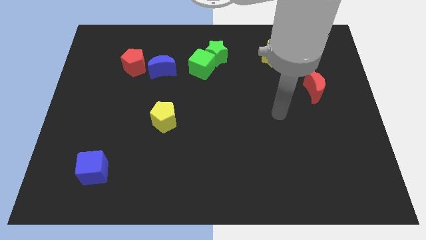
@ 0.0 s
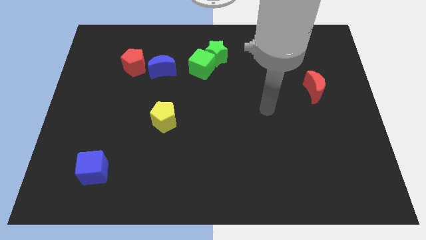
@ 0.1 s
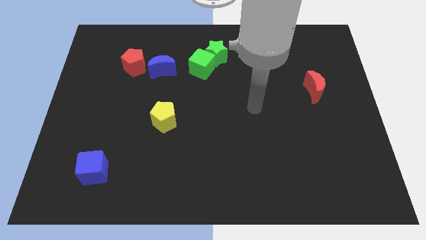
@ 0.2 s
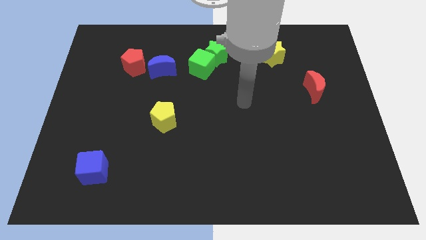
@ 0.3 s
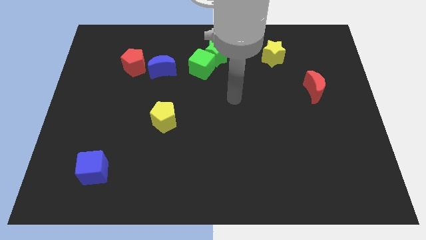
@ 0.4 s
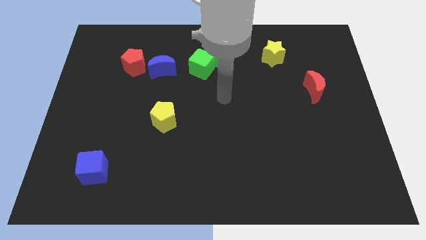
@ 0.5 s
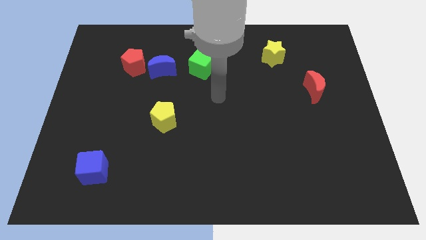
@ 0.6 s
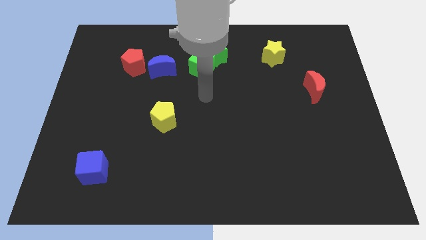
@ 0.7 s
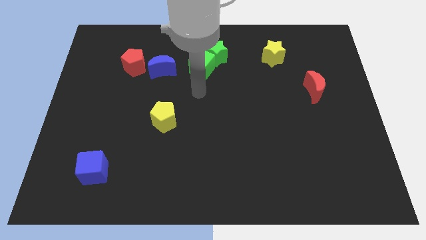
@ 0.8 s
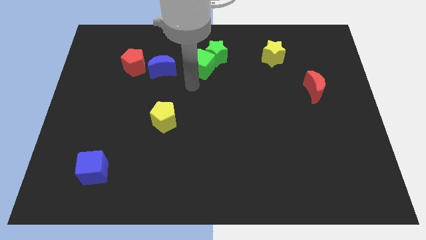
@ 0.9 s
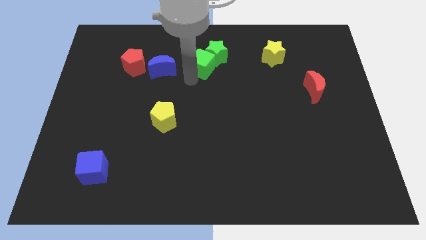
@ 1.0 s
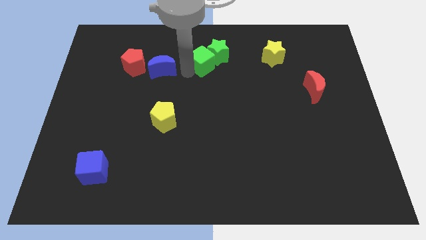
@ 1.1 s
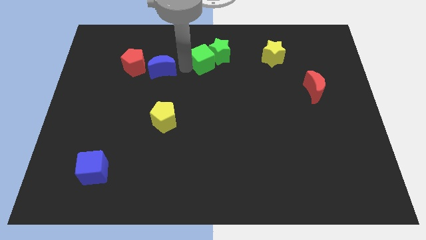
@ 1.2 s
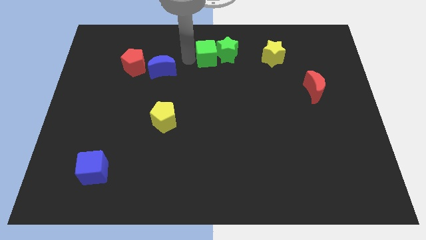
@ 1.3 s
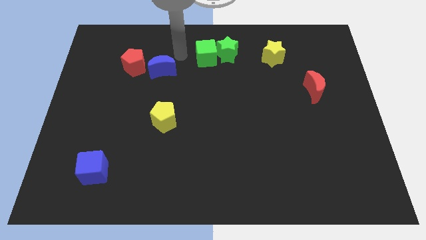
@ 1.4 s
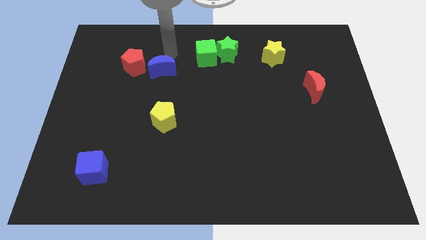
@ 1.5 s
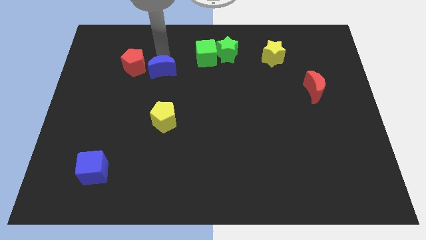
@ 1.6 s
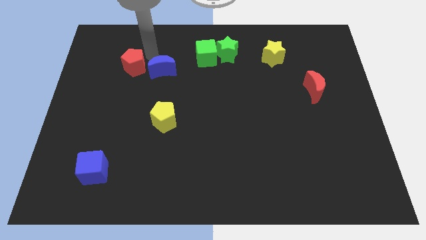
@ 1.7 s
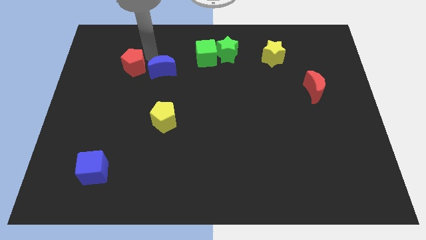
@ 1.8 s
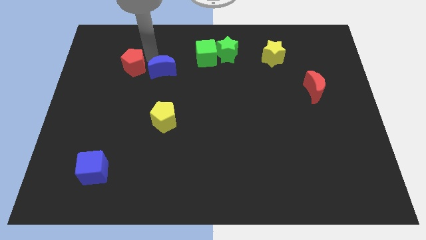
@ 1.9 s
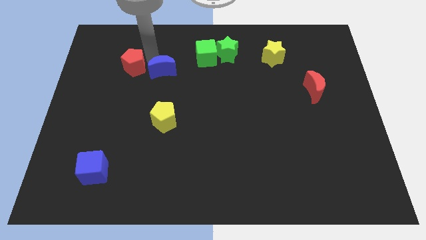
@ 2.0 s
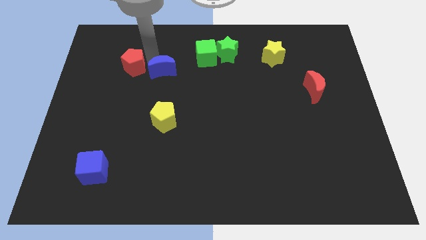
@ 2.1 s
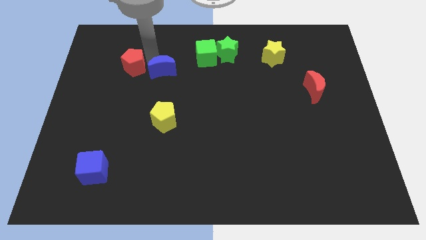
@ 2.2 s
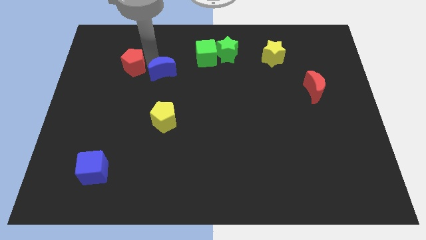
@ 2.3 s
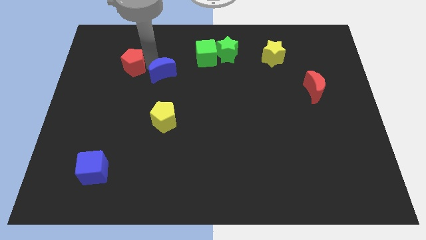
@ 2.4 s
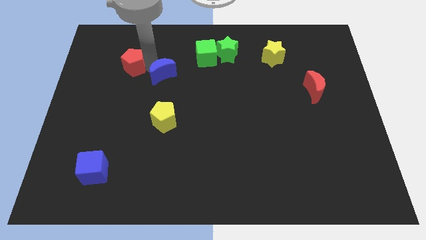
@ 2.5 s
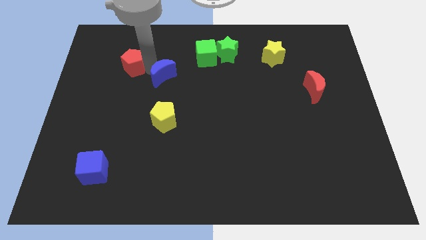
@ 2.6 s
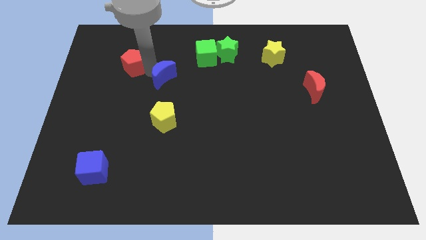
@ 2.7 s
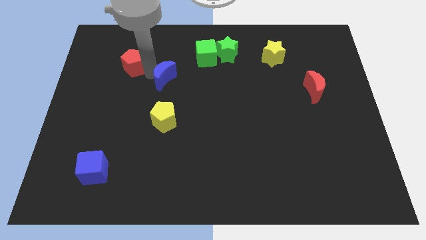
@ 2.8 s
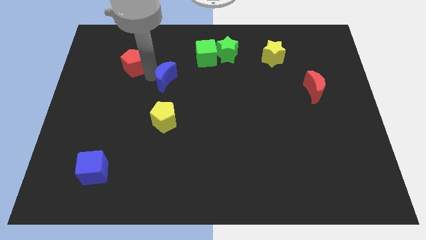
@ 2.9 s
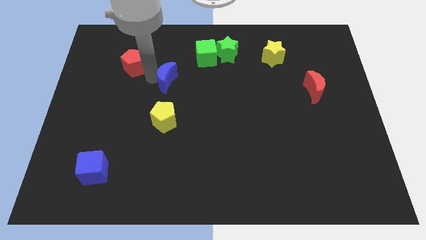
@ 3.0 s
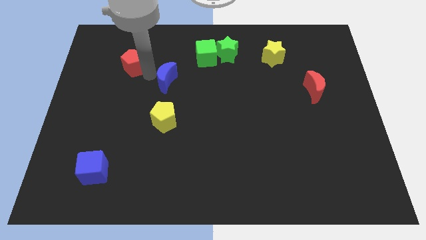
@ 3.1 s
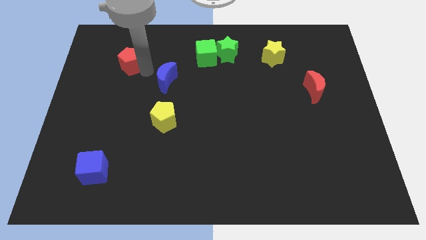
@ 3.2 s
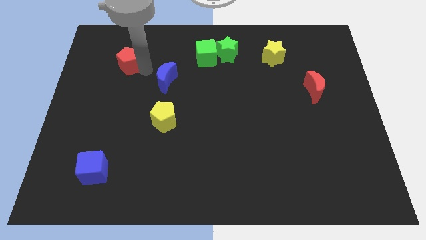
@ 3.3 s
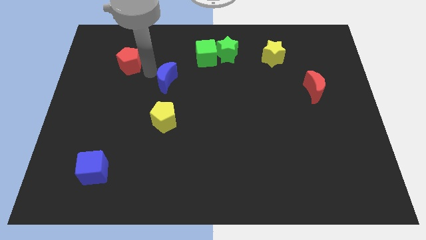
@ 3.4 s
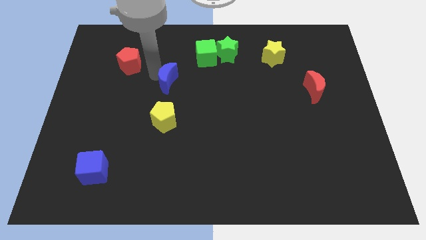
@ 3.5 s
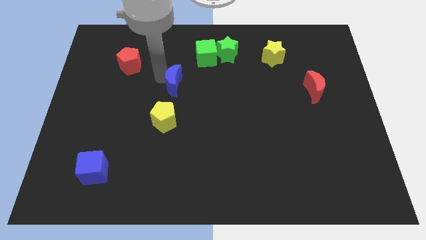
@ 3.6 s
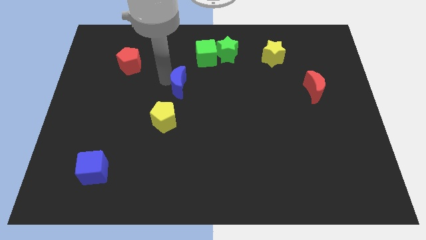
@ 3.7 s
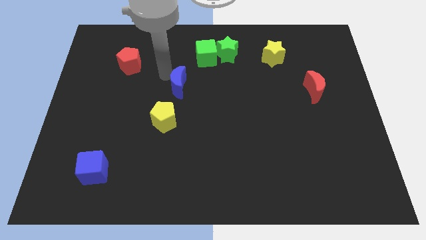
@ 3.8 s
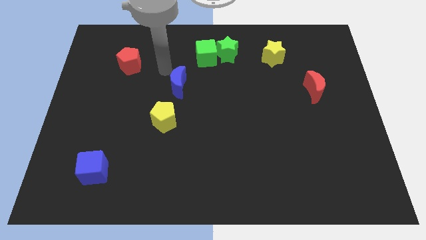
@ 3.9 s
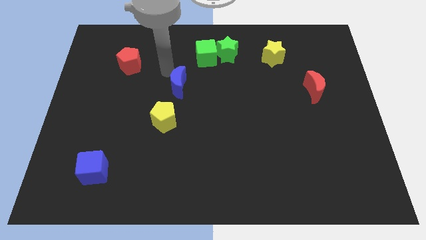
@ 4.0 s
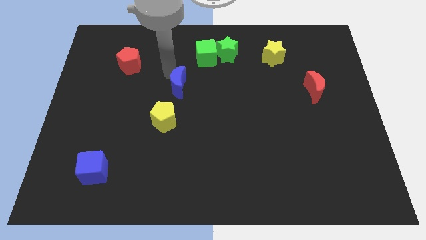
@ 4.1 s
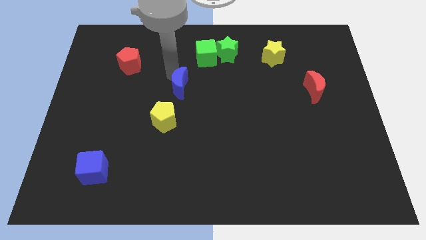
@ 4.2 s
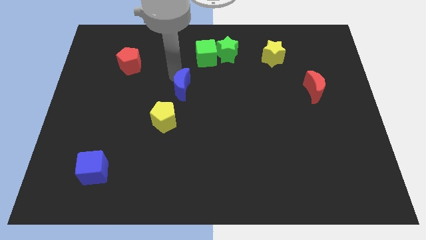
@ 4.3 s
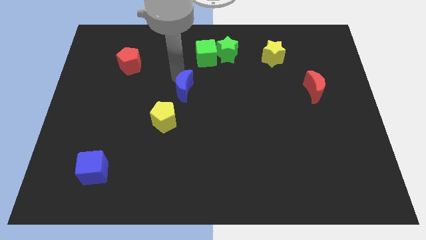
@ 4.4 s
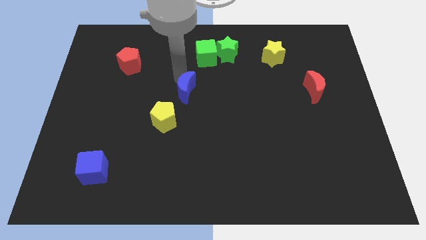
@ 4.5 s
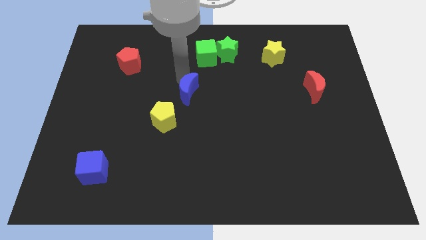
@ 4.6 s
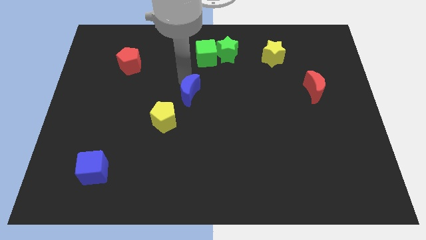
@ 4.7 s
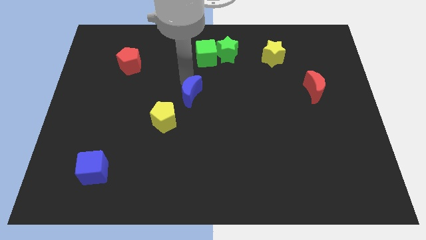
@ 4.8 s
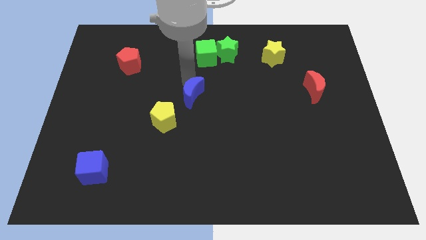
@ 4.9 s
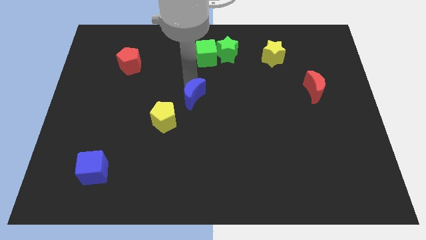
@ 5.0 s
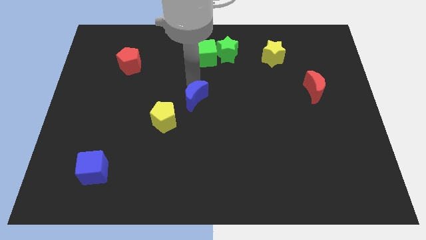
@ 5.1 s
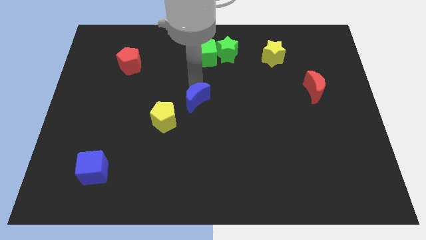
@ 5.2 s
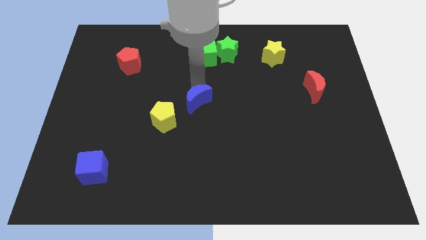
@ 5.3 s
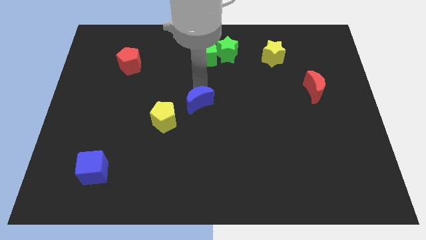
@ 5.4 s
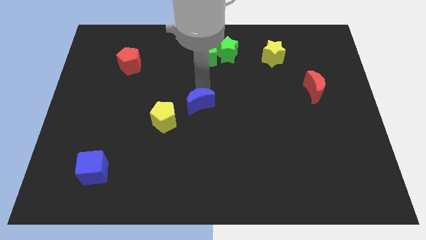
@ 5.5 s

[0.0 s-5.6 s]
slide the blue moon just right of the yellow pentagon

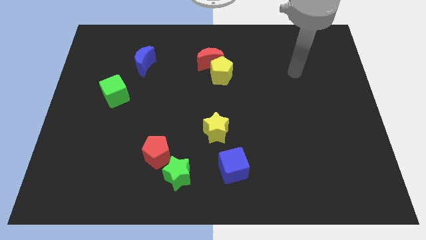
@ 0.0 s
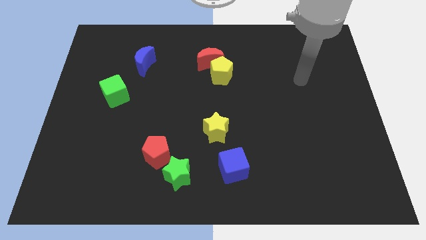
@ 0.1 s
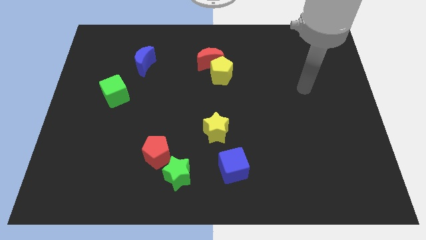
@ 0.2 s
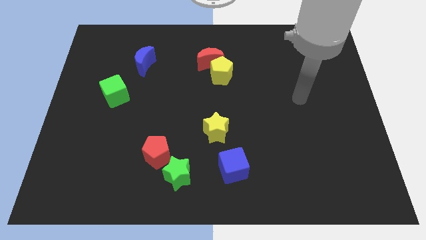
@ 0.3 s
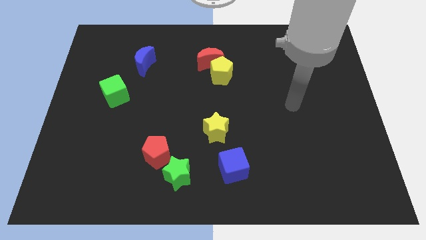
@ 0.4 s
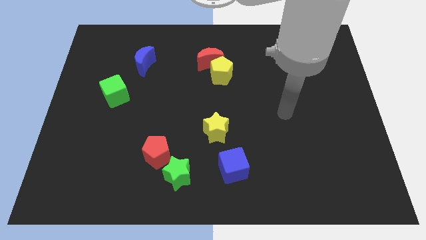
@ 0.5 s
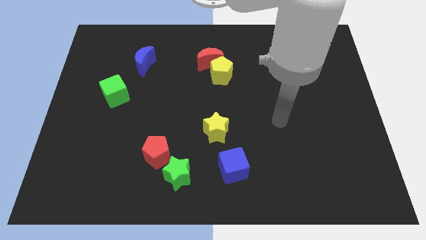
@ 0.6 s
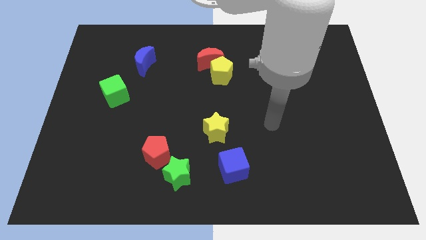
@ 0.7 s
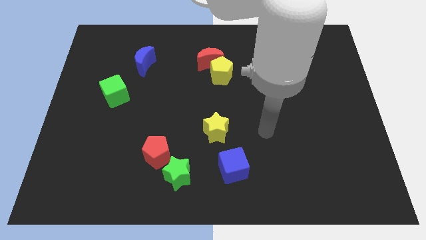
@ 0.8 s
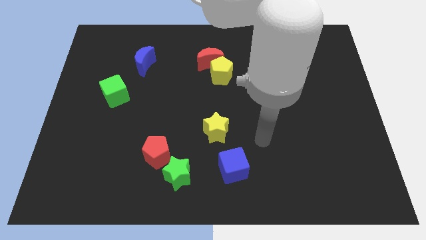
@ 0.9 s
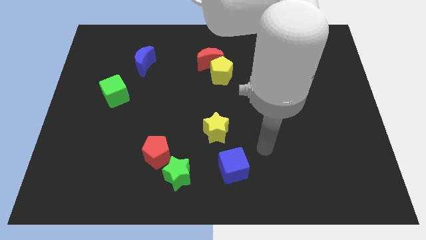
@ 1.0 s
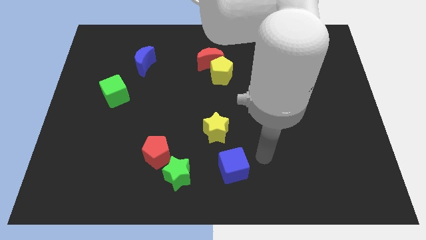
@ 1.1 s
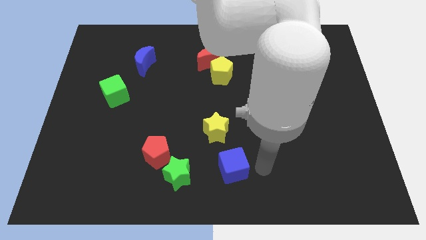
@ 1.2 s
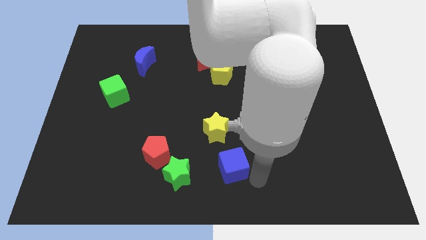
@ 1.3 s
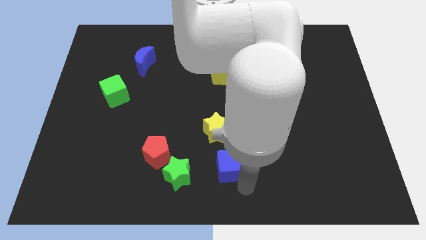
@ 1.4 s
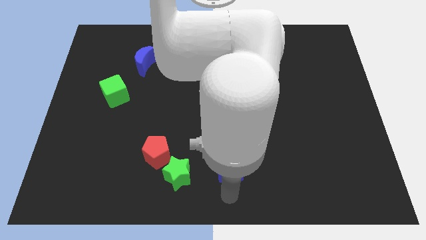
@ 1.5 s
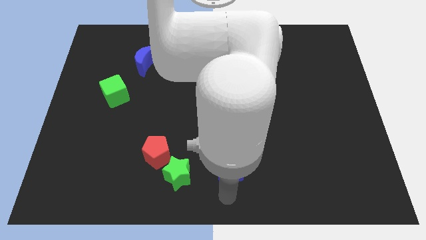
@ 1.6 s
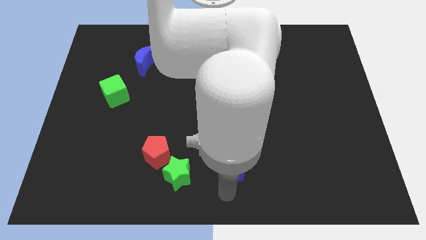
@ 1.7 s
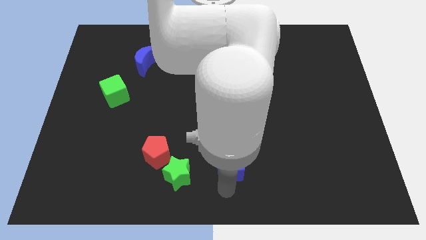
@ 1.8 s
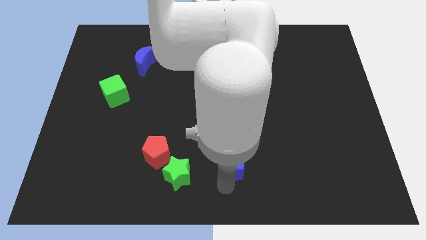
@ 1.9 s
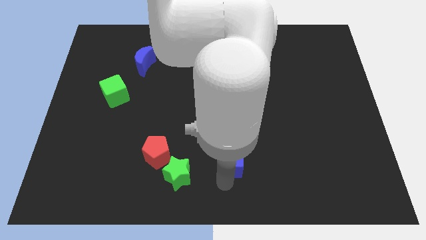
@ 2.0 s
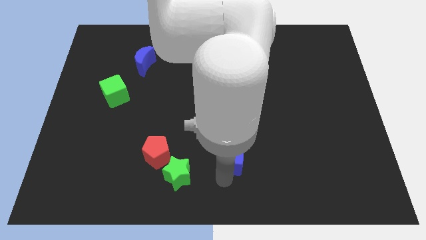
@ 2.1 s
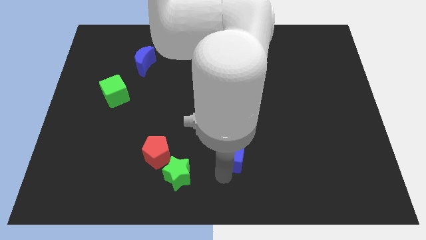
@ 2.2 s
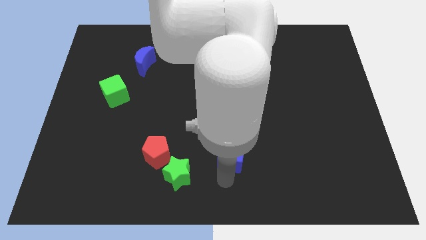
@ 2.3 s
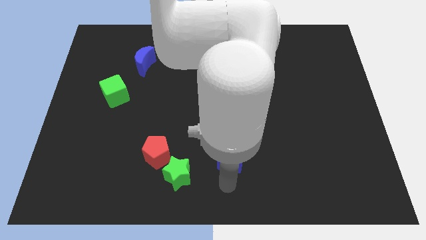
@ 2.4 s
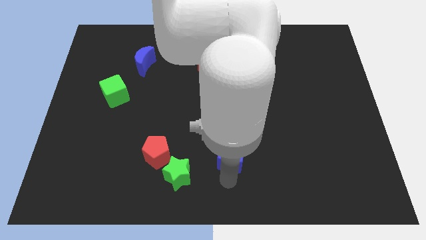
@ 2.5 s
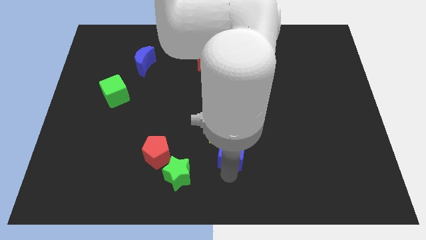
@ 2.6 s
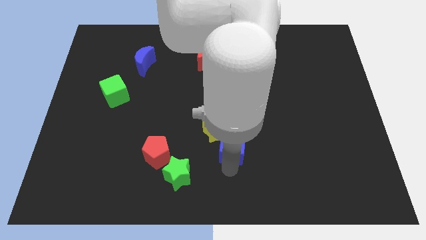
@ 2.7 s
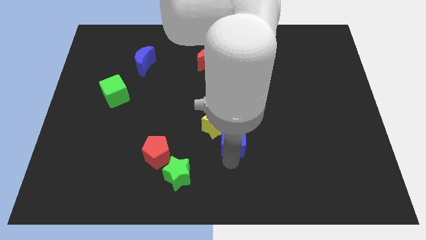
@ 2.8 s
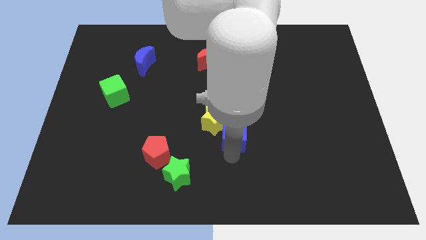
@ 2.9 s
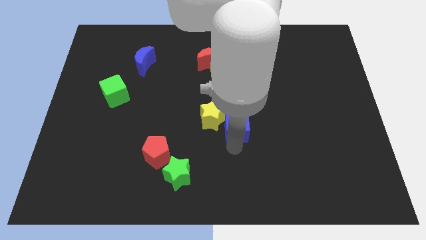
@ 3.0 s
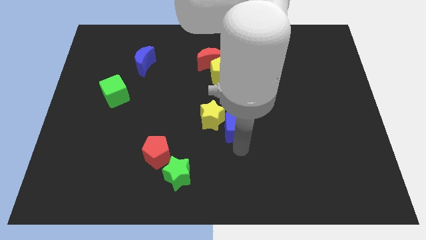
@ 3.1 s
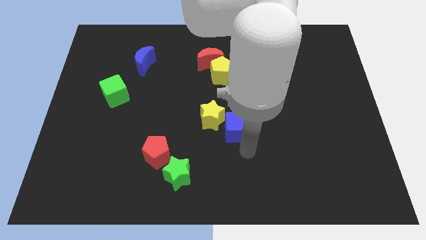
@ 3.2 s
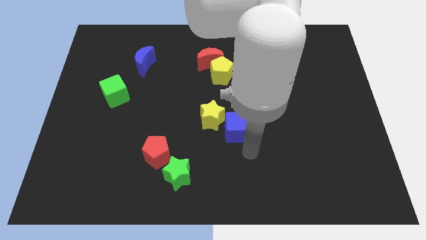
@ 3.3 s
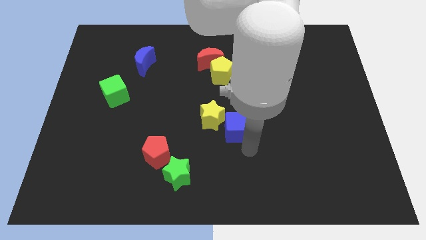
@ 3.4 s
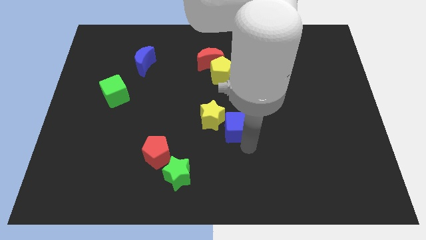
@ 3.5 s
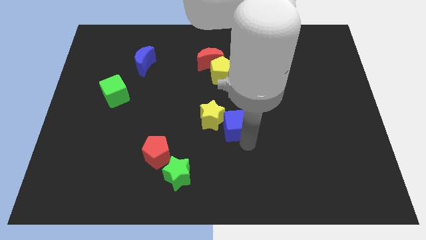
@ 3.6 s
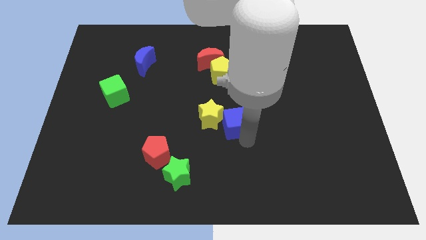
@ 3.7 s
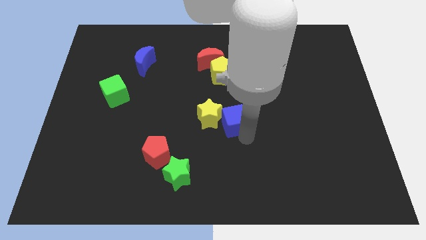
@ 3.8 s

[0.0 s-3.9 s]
slide the blue cube below the yellow pentagon
